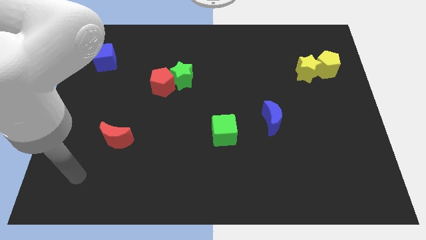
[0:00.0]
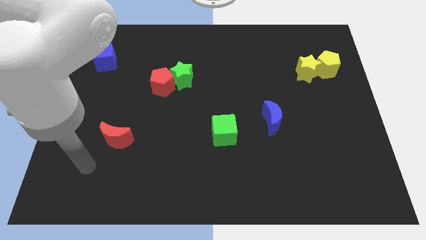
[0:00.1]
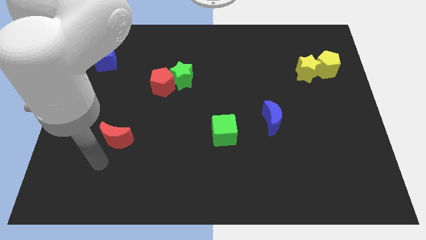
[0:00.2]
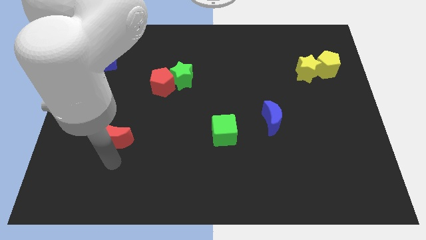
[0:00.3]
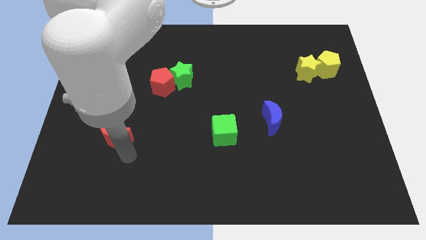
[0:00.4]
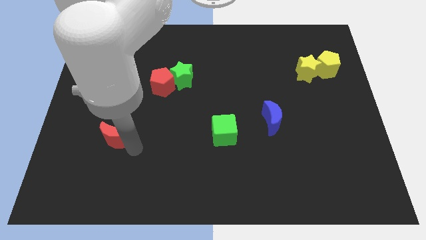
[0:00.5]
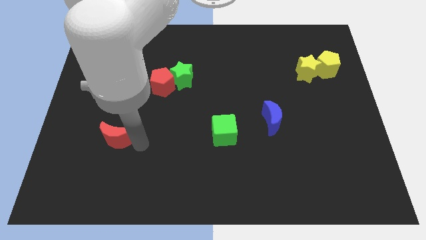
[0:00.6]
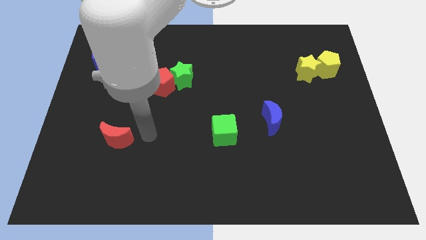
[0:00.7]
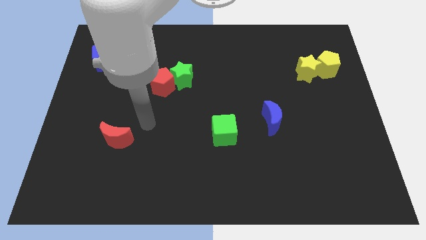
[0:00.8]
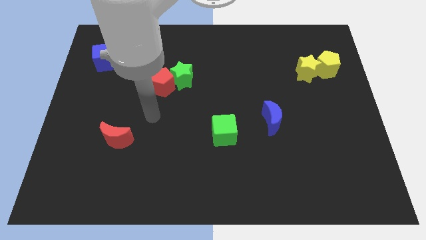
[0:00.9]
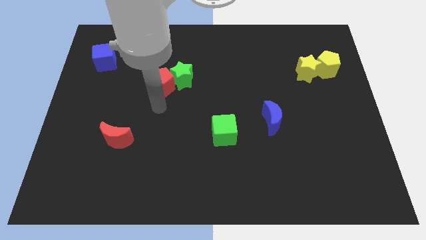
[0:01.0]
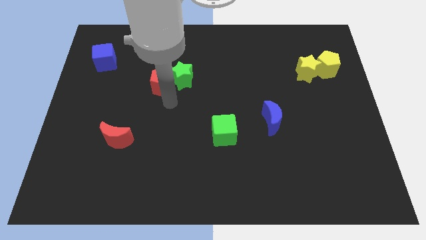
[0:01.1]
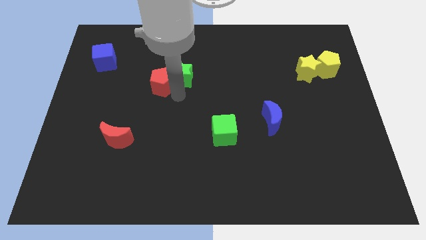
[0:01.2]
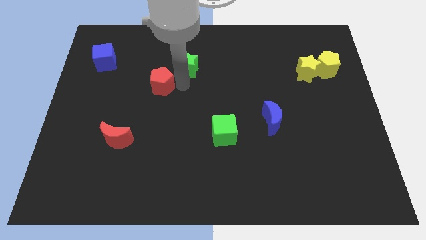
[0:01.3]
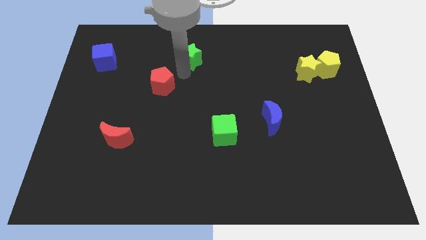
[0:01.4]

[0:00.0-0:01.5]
pull the red pentagon apart from the green star

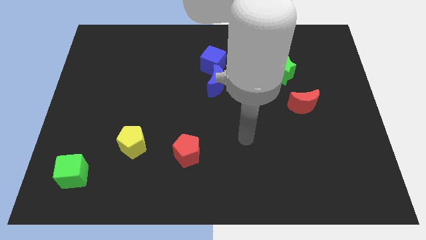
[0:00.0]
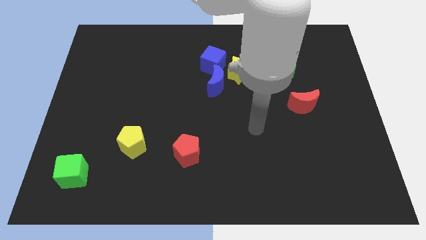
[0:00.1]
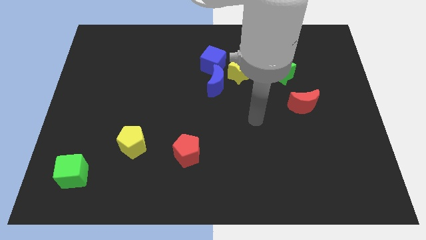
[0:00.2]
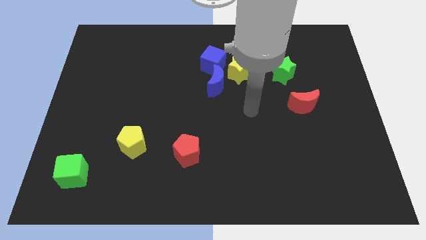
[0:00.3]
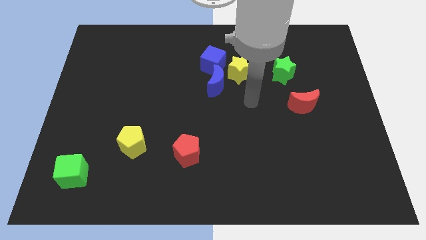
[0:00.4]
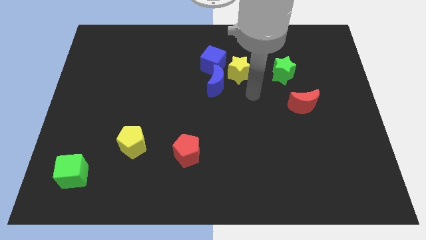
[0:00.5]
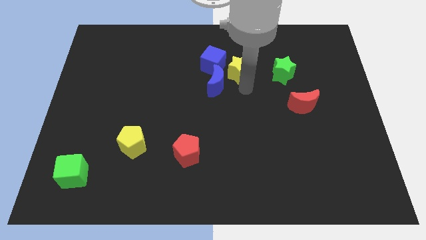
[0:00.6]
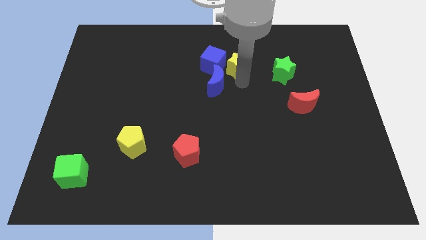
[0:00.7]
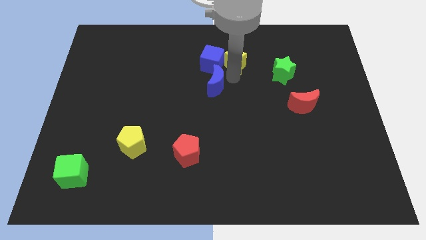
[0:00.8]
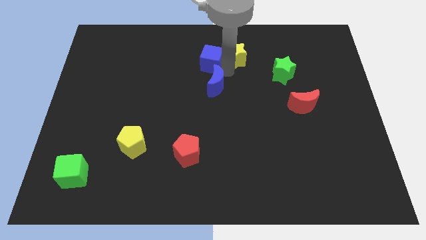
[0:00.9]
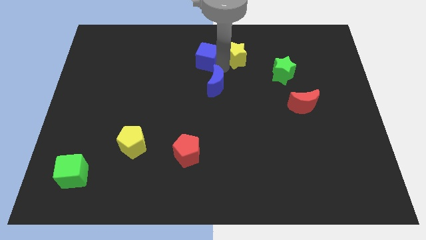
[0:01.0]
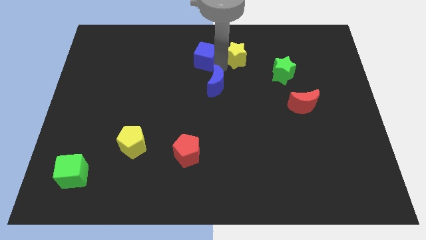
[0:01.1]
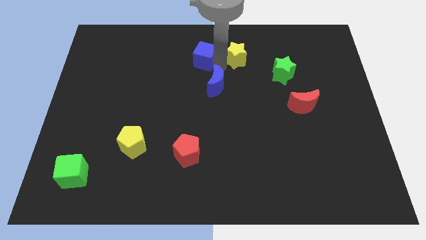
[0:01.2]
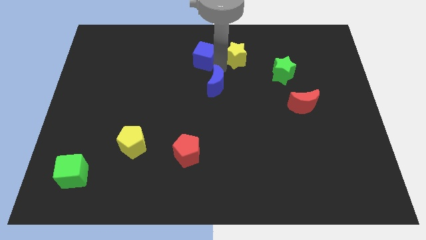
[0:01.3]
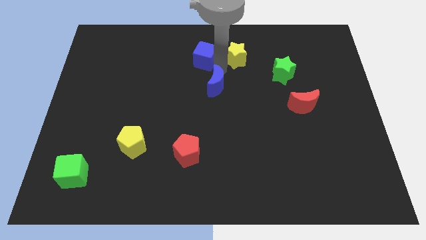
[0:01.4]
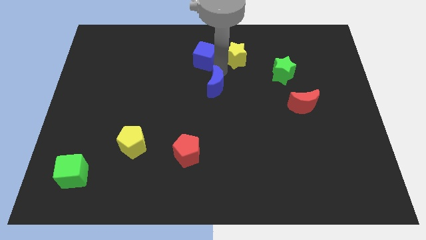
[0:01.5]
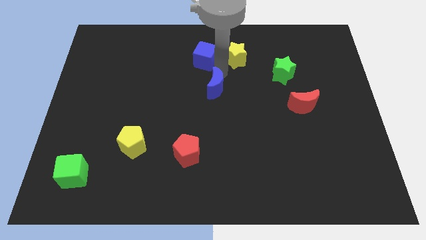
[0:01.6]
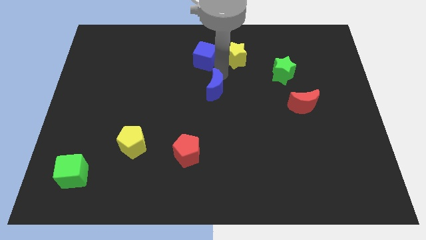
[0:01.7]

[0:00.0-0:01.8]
pull the blue moon apart from the yellow star and blue cube

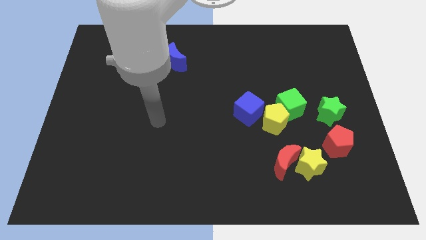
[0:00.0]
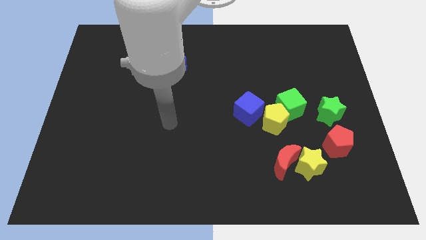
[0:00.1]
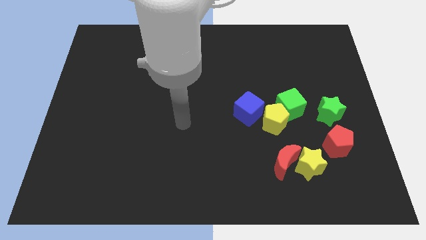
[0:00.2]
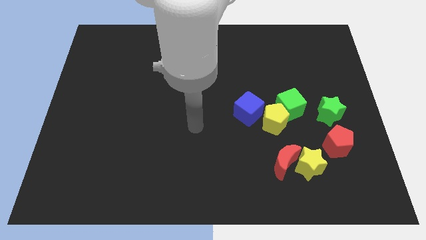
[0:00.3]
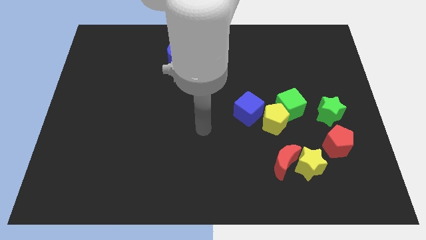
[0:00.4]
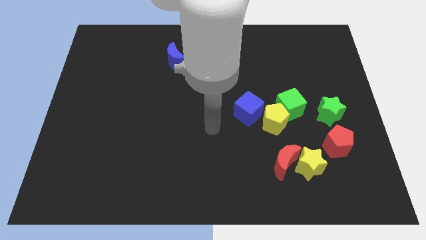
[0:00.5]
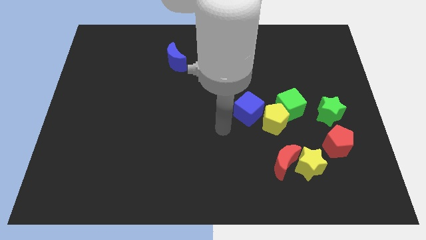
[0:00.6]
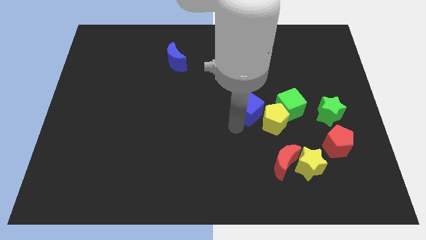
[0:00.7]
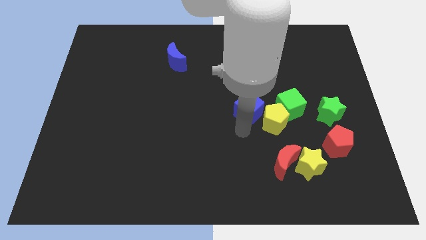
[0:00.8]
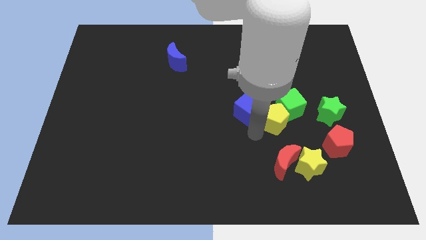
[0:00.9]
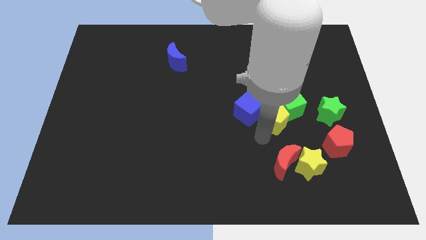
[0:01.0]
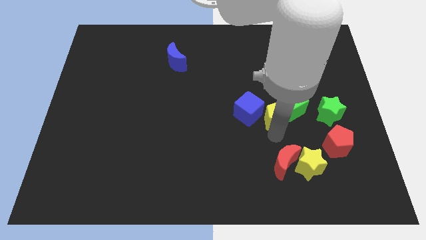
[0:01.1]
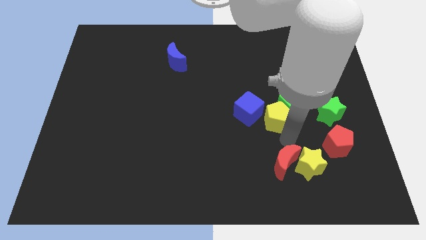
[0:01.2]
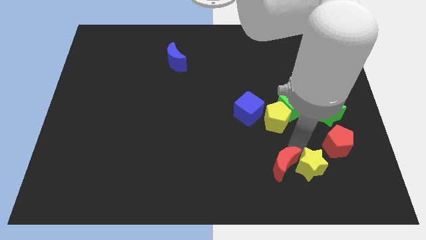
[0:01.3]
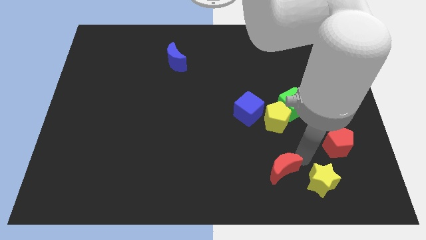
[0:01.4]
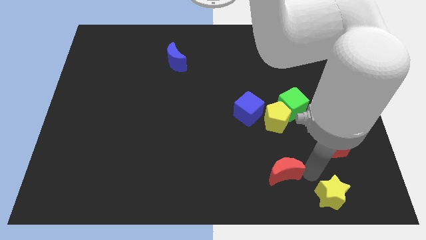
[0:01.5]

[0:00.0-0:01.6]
separate the red moon from the yellow star

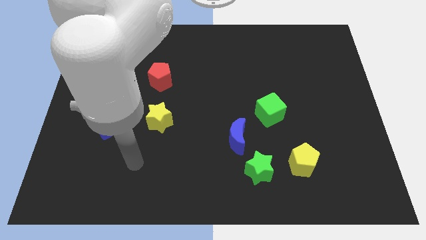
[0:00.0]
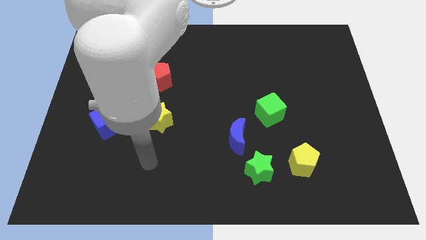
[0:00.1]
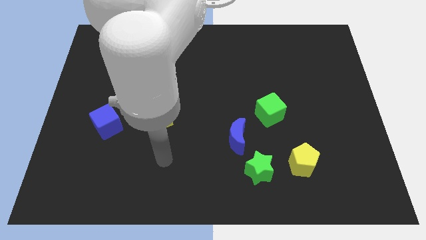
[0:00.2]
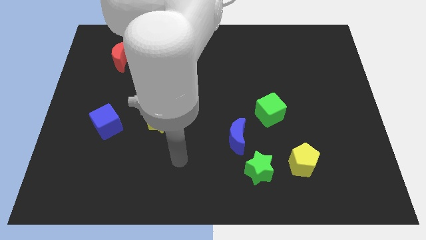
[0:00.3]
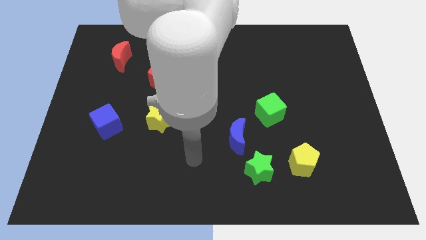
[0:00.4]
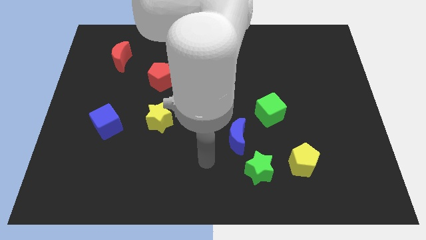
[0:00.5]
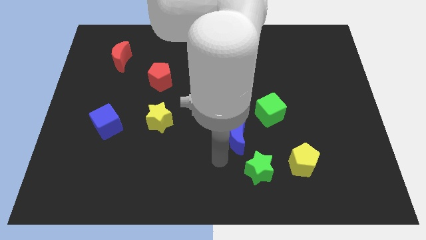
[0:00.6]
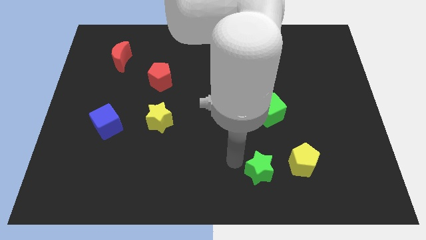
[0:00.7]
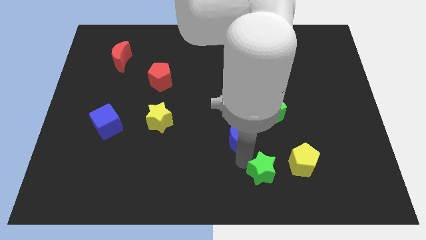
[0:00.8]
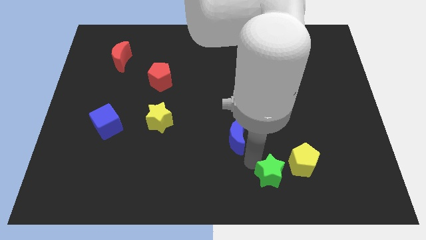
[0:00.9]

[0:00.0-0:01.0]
move the blue moon away from the green star

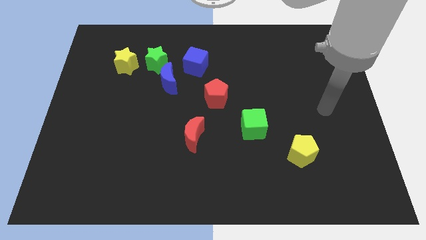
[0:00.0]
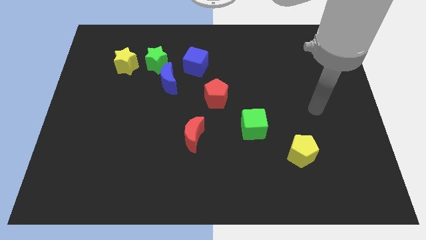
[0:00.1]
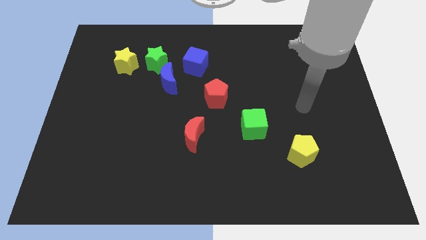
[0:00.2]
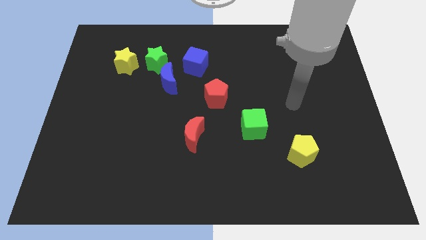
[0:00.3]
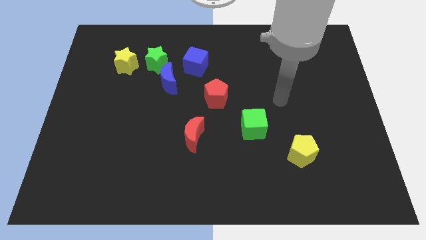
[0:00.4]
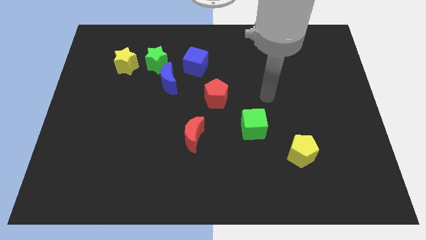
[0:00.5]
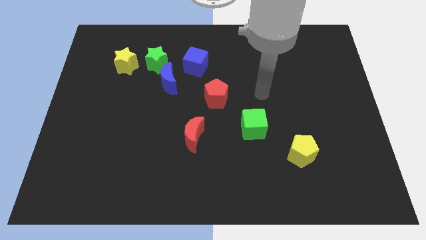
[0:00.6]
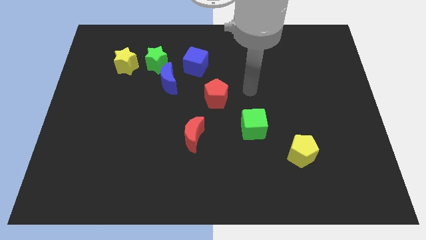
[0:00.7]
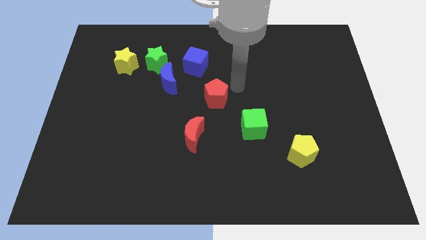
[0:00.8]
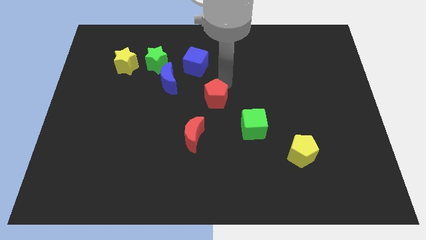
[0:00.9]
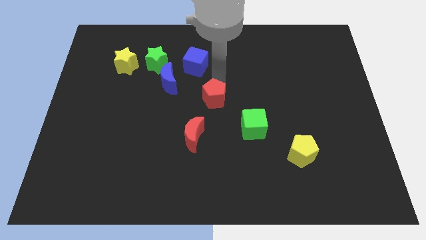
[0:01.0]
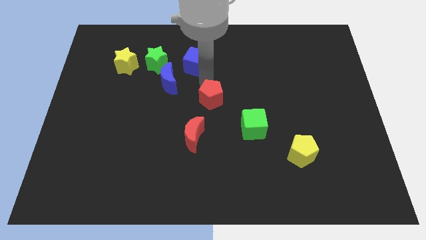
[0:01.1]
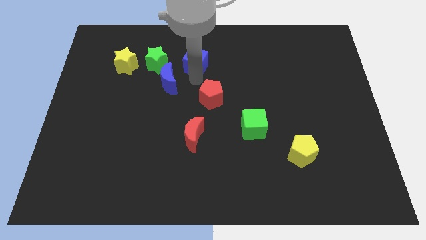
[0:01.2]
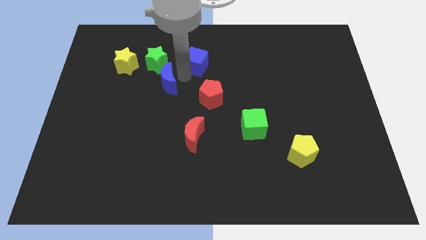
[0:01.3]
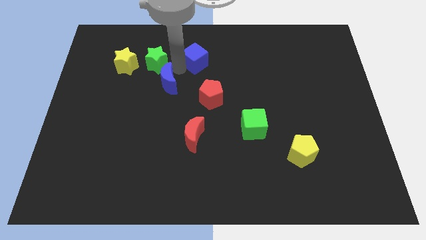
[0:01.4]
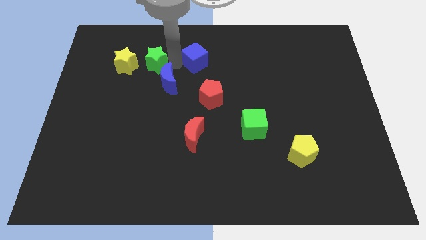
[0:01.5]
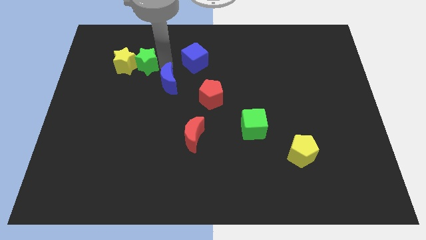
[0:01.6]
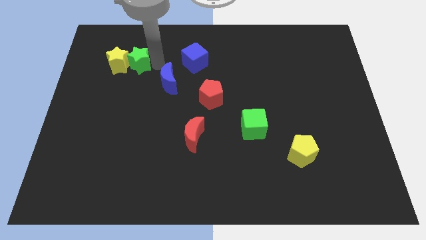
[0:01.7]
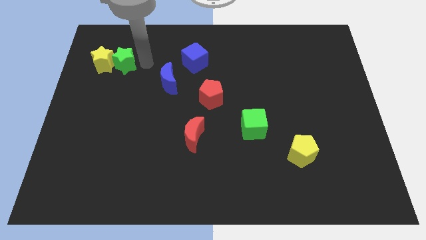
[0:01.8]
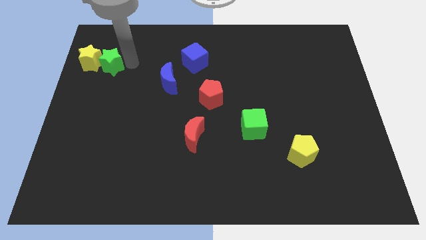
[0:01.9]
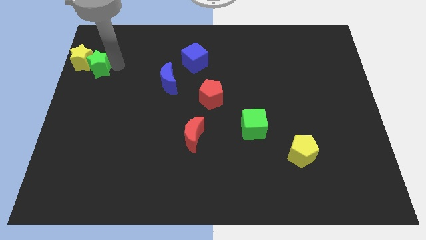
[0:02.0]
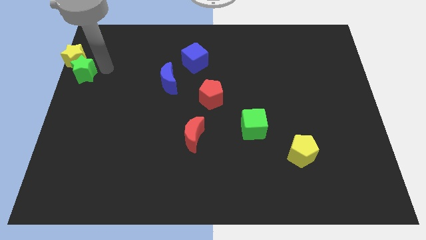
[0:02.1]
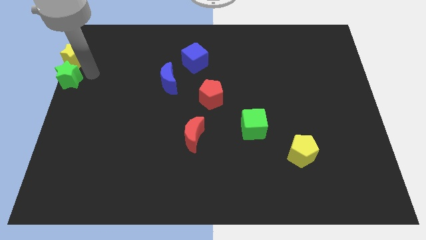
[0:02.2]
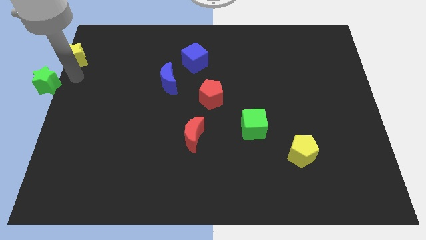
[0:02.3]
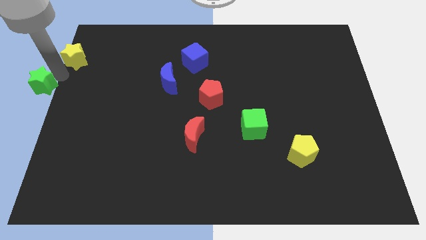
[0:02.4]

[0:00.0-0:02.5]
move the yellow star away from the green star

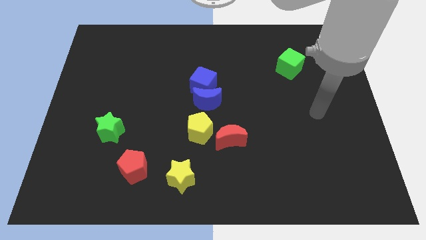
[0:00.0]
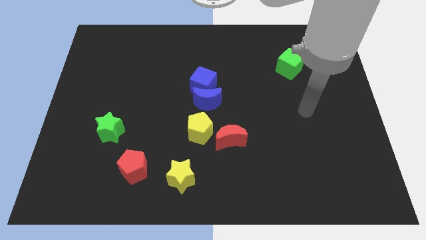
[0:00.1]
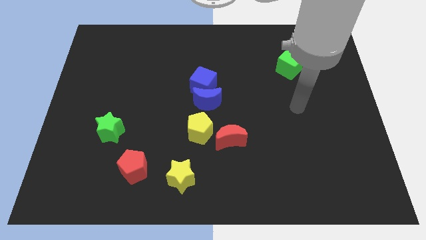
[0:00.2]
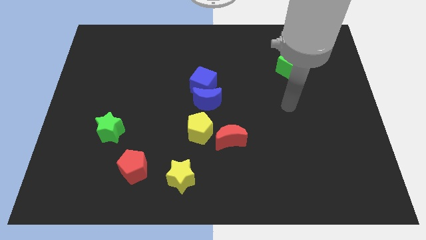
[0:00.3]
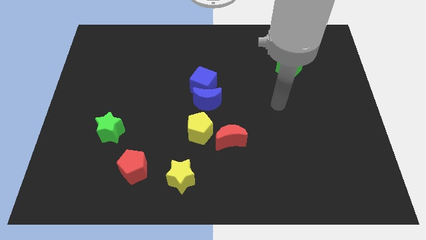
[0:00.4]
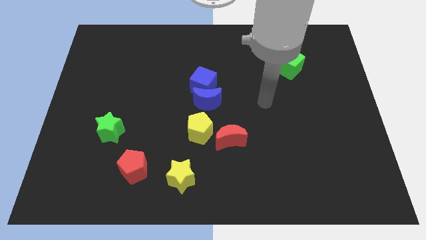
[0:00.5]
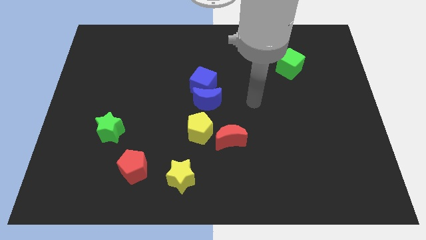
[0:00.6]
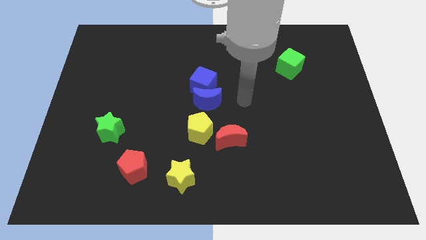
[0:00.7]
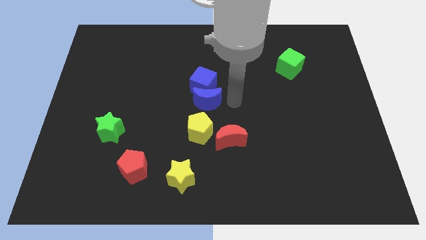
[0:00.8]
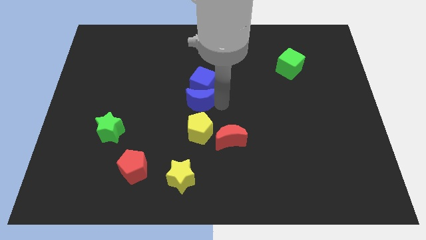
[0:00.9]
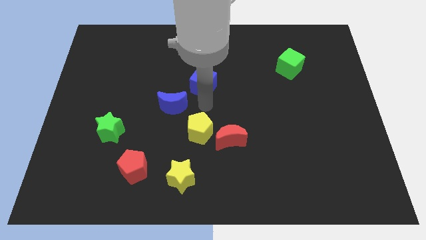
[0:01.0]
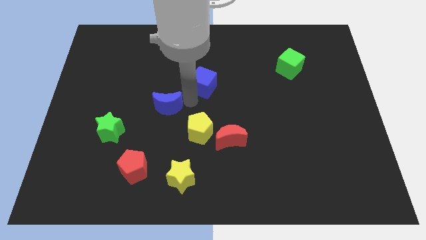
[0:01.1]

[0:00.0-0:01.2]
pull the blue cube apart from the blue moon
